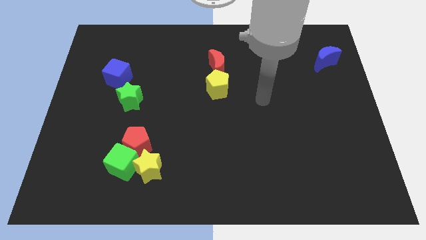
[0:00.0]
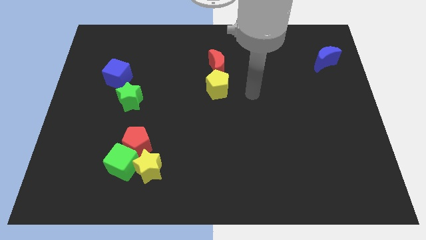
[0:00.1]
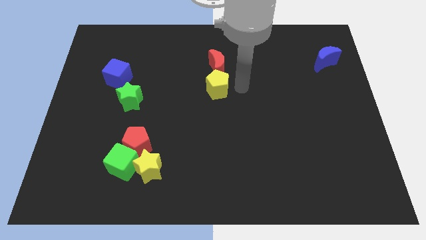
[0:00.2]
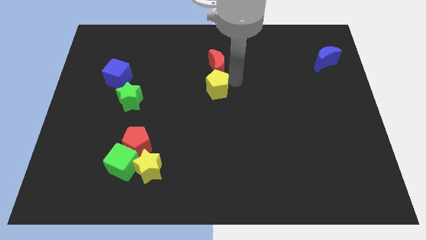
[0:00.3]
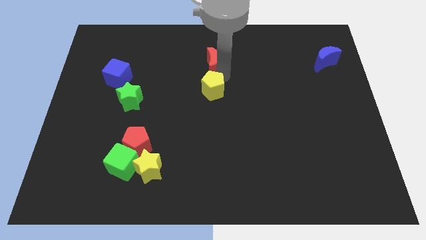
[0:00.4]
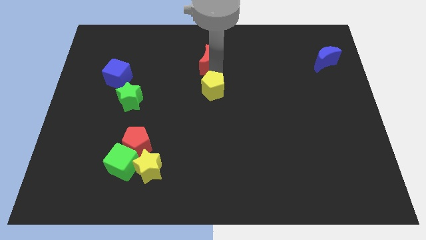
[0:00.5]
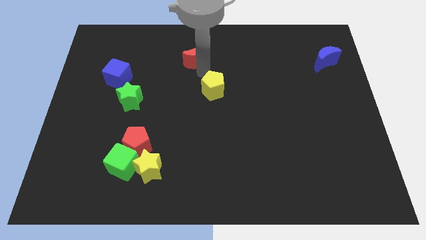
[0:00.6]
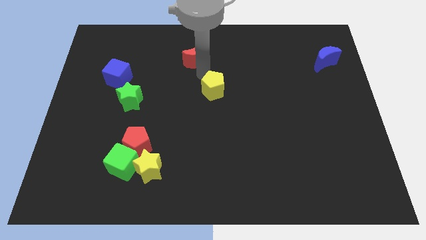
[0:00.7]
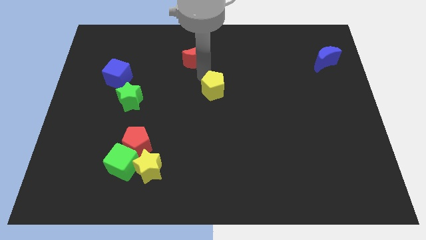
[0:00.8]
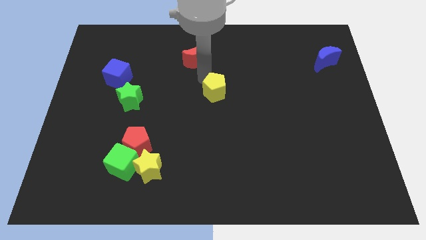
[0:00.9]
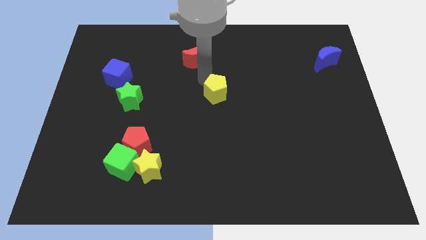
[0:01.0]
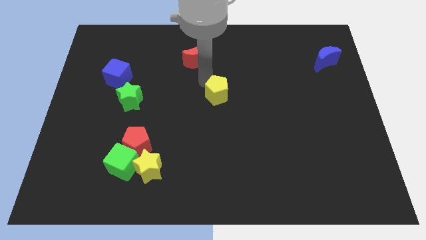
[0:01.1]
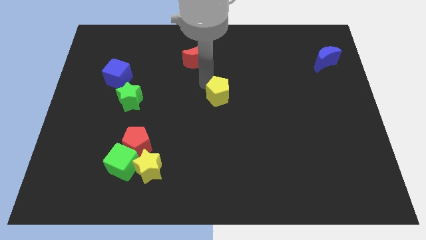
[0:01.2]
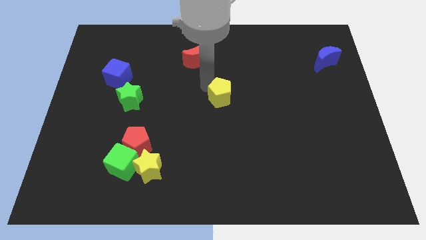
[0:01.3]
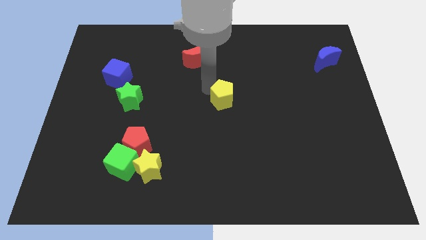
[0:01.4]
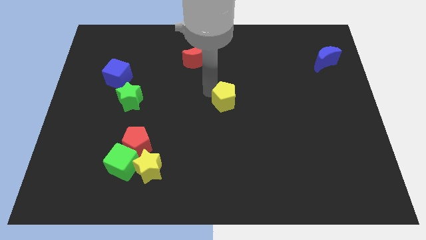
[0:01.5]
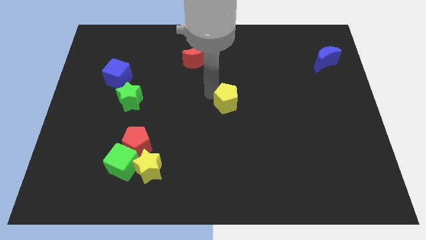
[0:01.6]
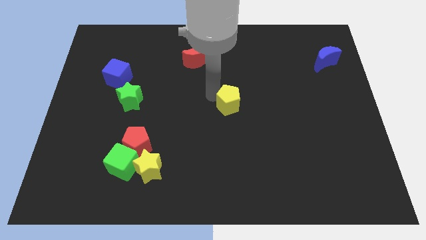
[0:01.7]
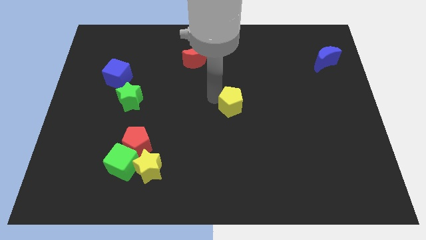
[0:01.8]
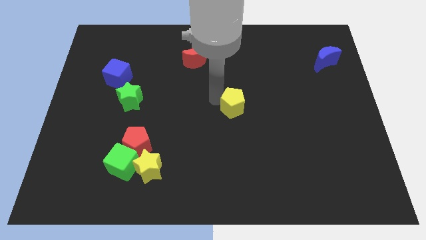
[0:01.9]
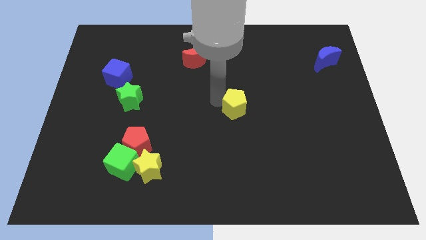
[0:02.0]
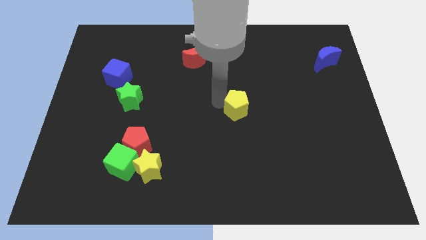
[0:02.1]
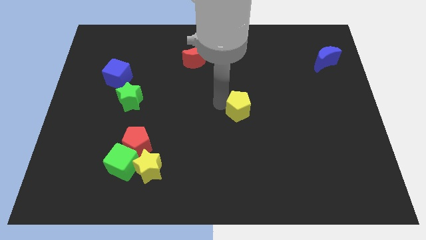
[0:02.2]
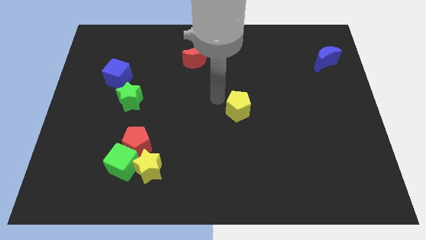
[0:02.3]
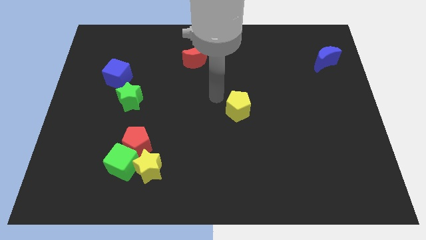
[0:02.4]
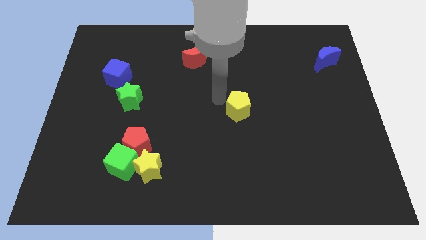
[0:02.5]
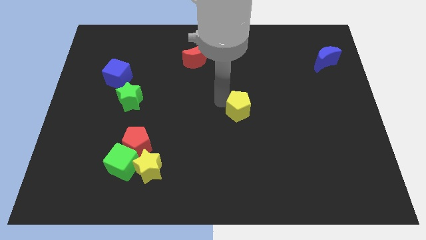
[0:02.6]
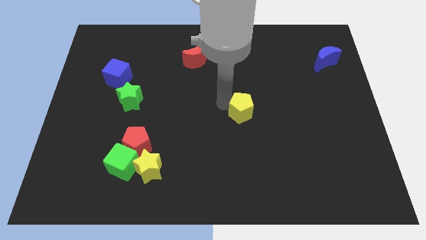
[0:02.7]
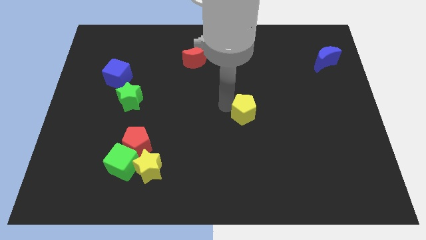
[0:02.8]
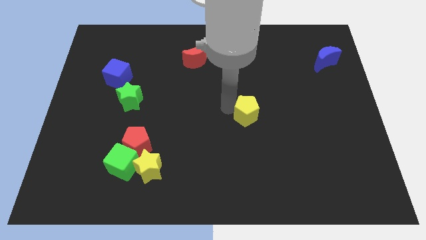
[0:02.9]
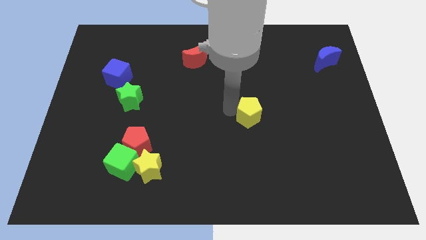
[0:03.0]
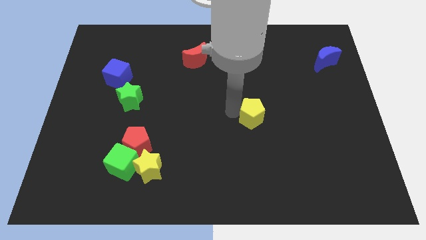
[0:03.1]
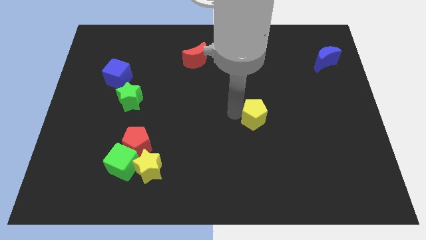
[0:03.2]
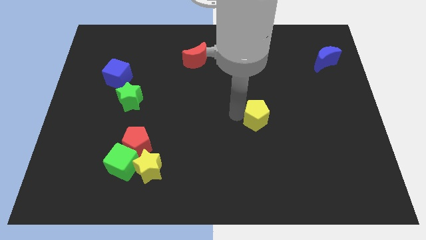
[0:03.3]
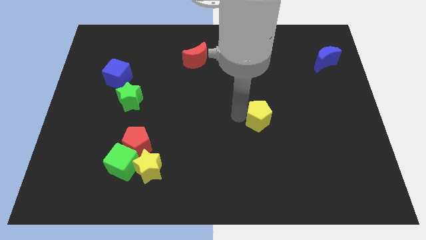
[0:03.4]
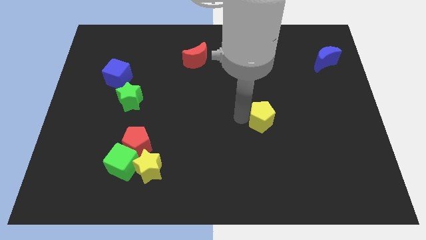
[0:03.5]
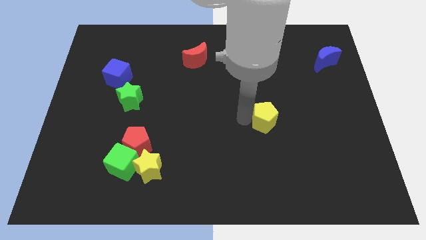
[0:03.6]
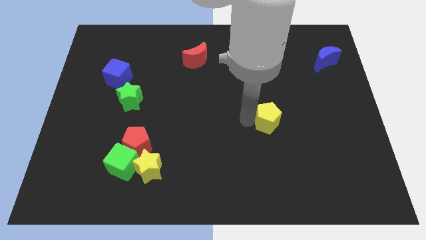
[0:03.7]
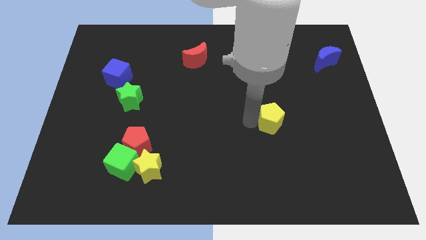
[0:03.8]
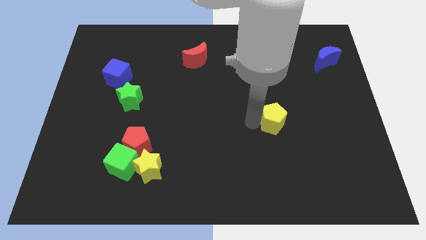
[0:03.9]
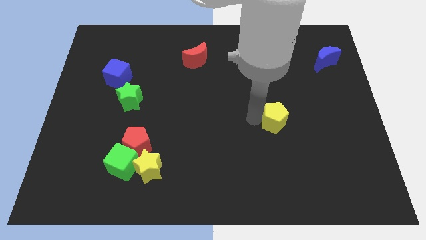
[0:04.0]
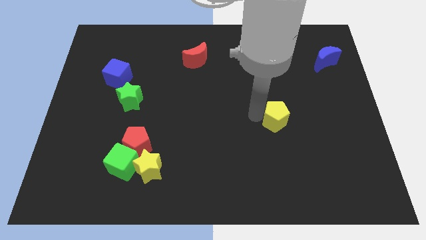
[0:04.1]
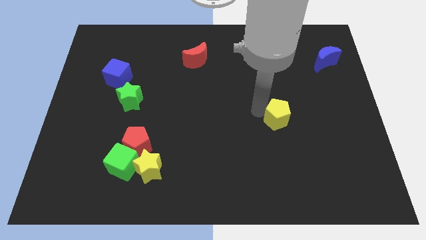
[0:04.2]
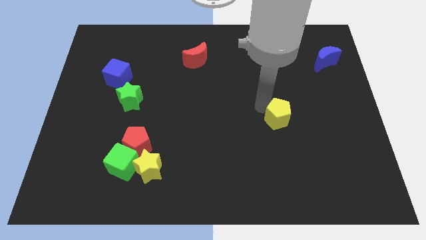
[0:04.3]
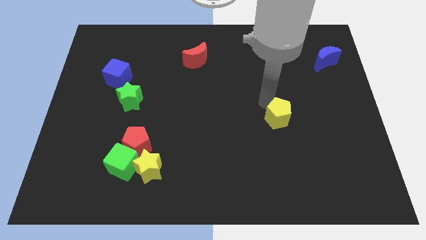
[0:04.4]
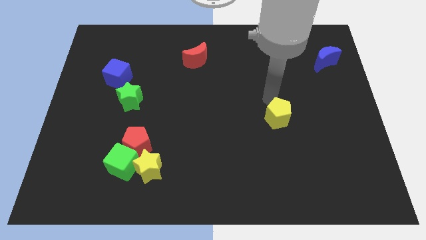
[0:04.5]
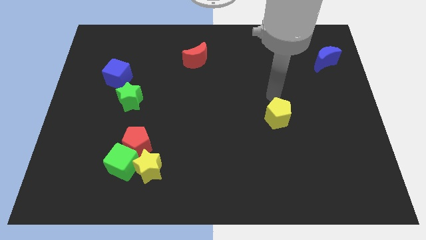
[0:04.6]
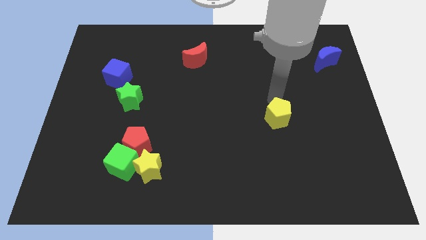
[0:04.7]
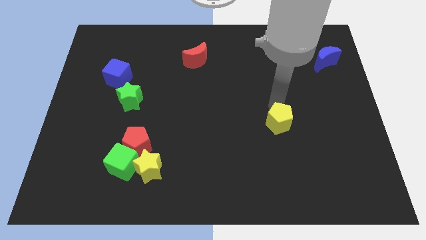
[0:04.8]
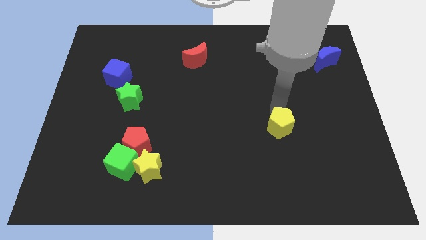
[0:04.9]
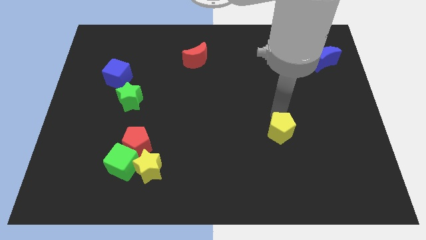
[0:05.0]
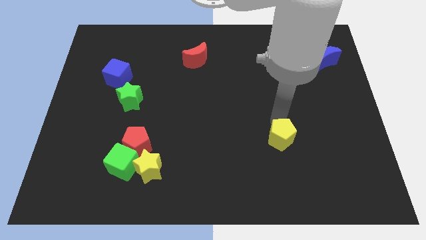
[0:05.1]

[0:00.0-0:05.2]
move the yellow pentagon diagonally down and to the right

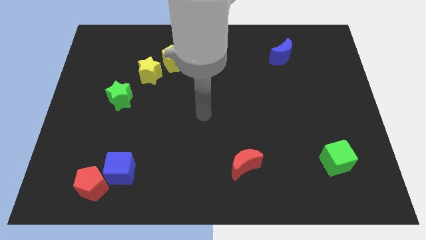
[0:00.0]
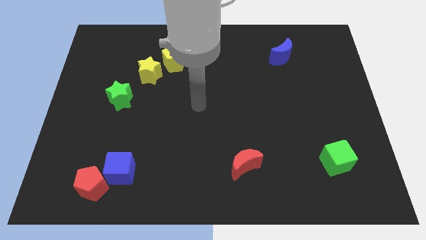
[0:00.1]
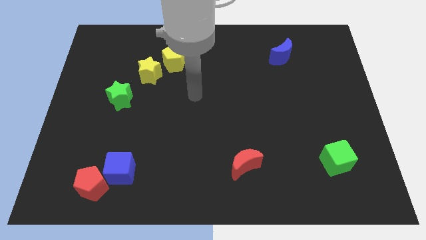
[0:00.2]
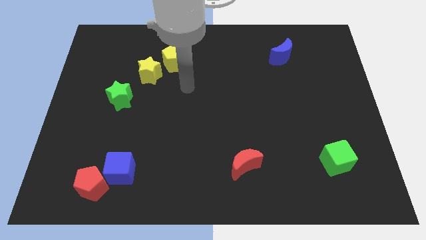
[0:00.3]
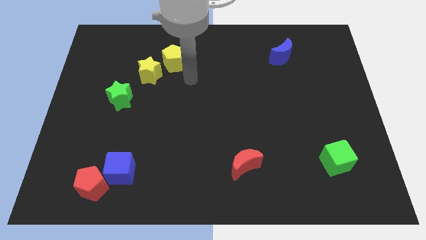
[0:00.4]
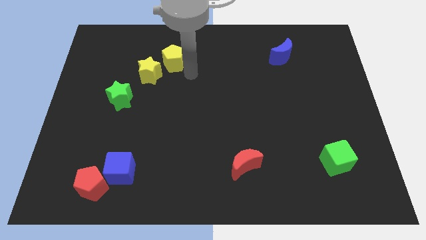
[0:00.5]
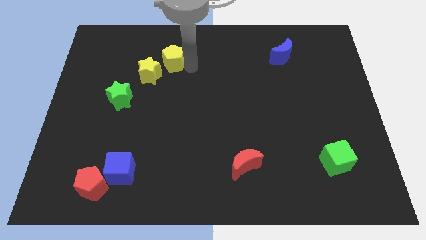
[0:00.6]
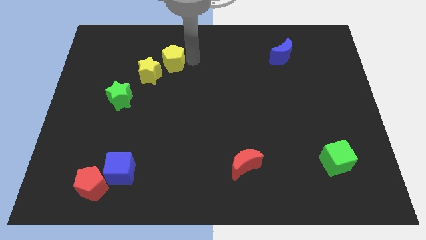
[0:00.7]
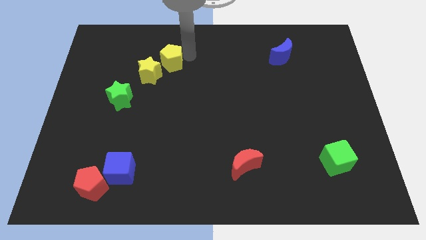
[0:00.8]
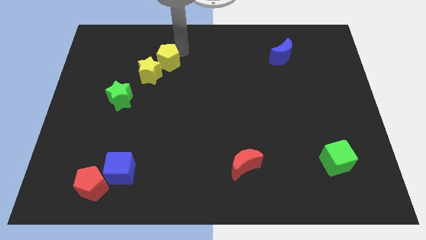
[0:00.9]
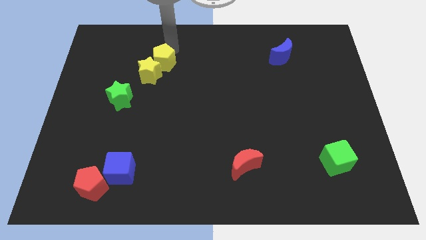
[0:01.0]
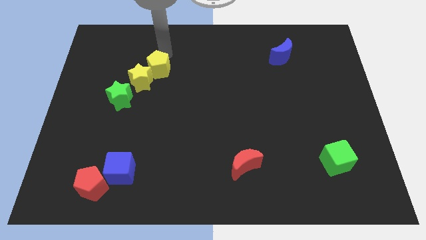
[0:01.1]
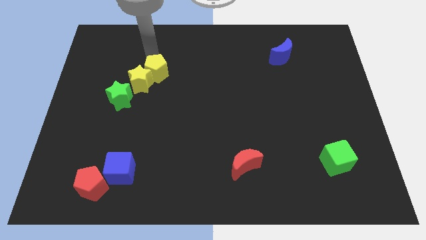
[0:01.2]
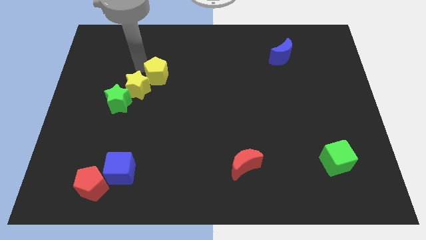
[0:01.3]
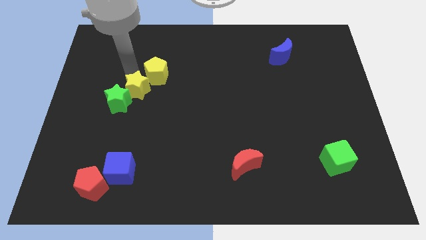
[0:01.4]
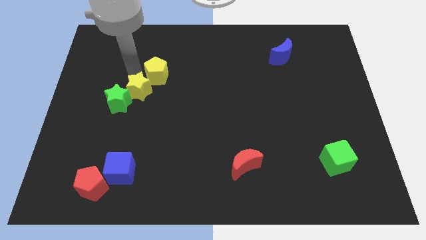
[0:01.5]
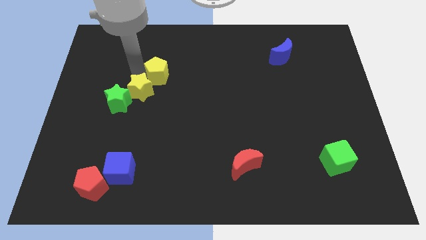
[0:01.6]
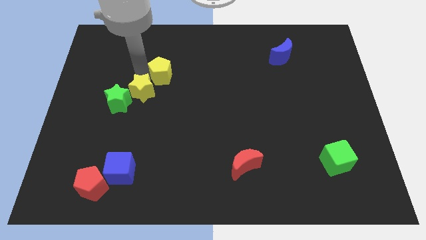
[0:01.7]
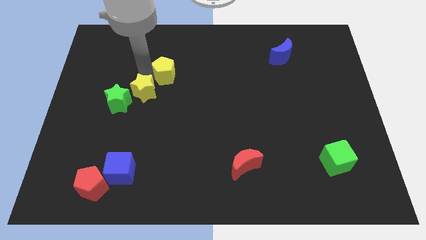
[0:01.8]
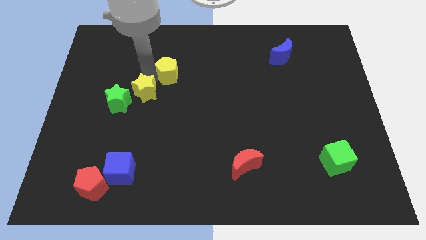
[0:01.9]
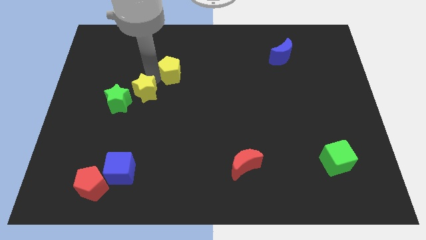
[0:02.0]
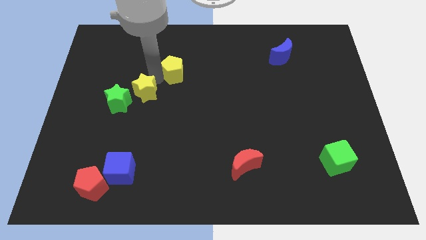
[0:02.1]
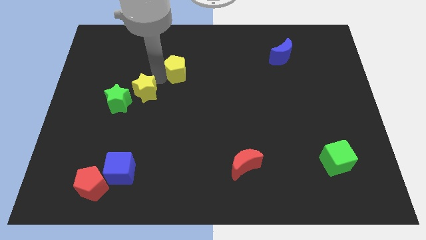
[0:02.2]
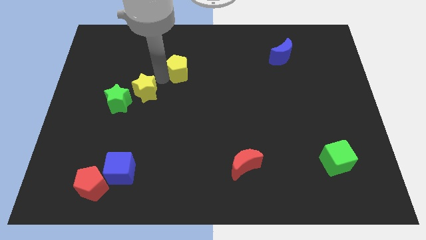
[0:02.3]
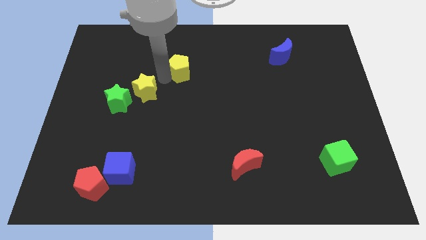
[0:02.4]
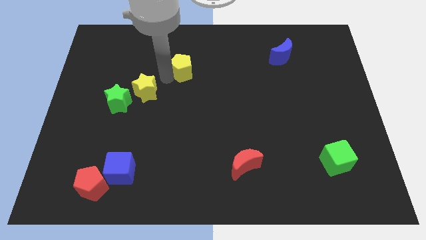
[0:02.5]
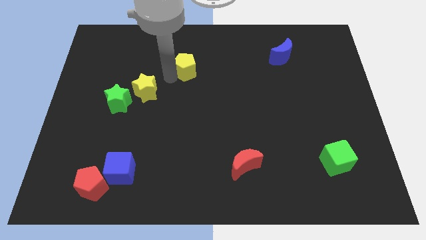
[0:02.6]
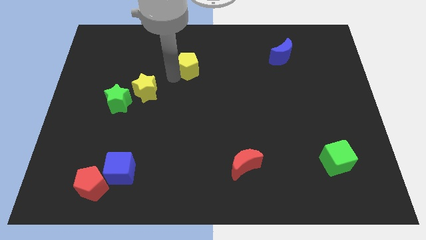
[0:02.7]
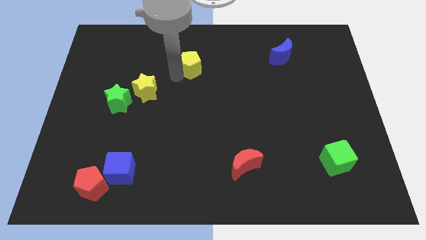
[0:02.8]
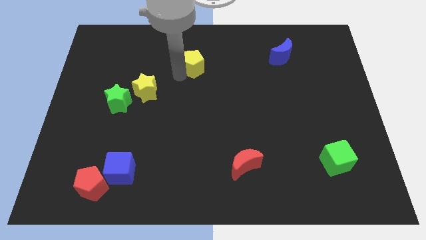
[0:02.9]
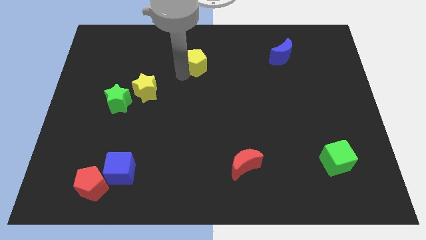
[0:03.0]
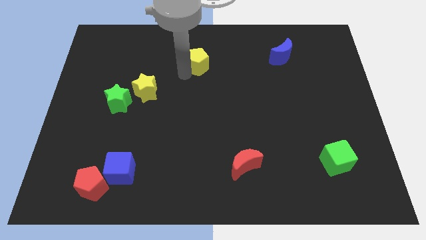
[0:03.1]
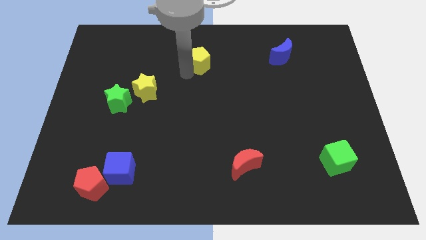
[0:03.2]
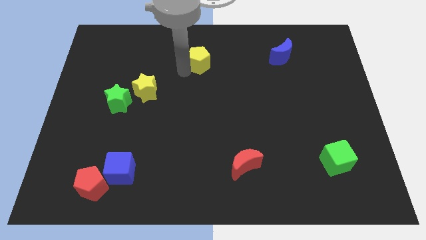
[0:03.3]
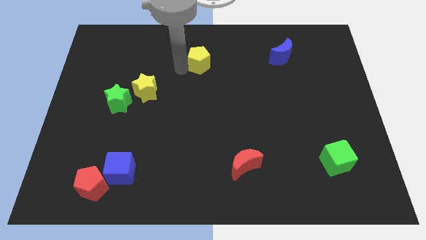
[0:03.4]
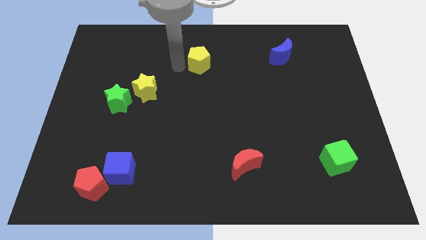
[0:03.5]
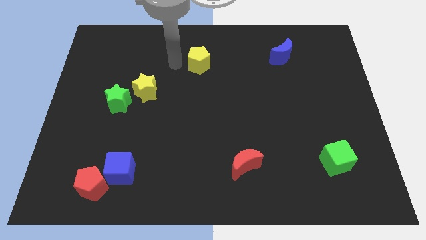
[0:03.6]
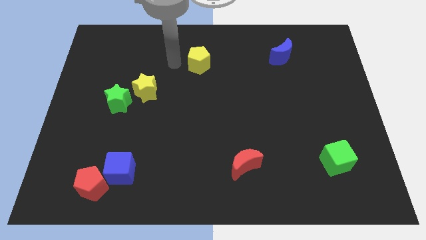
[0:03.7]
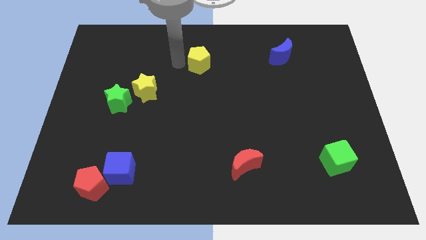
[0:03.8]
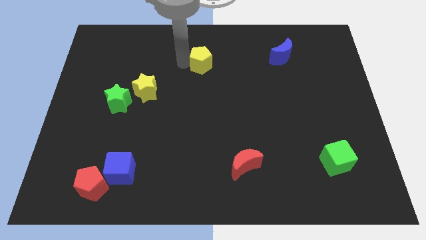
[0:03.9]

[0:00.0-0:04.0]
move the yellow pentagon a little right
